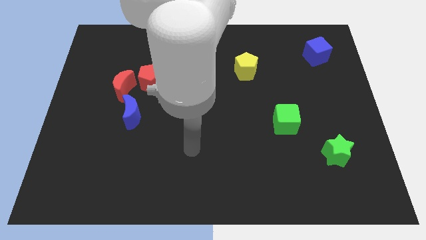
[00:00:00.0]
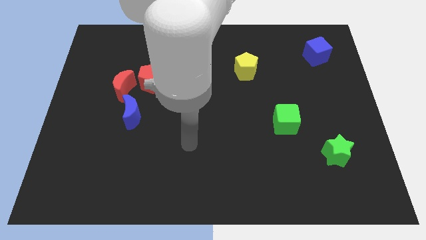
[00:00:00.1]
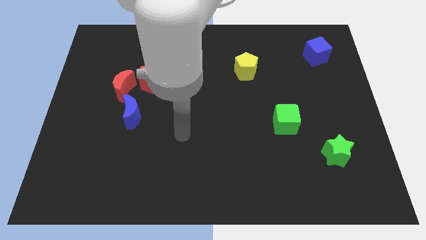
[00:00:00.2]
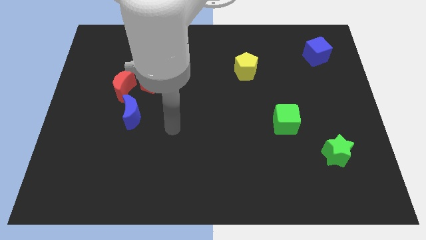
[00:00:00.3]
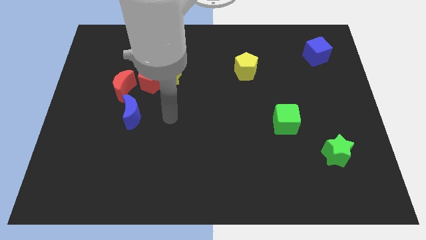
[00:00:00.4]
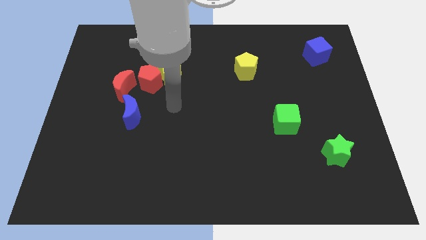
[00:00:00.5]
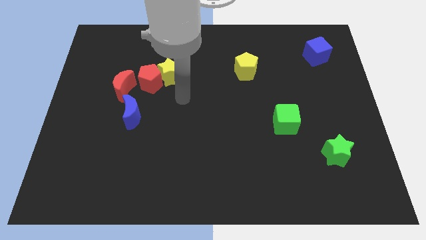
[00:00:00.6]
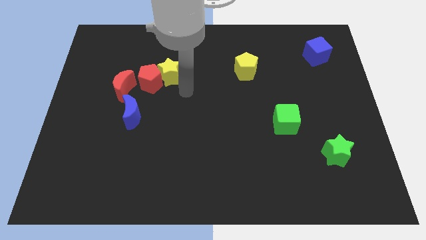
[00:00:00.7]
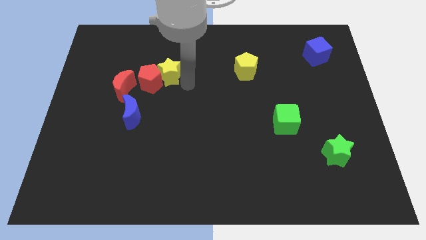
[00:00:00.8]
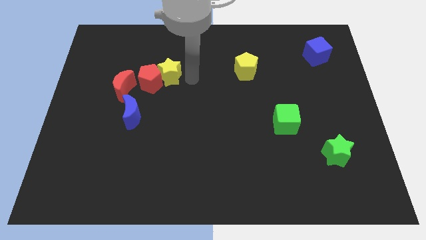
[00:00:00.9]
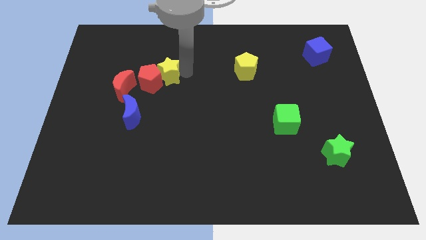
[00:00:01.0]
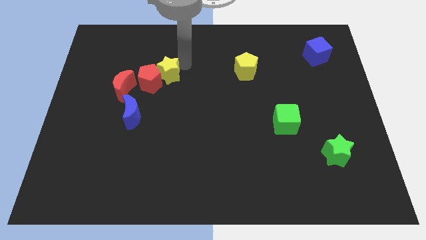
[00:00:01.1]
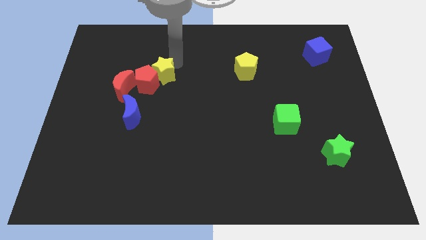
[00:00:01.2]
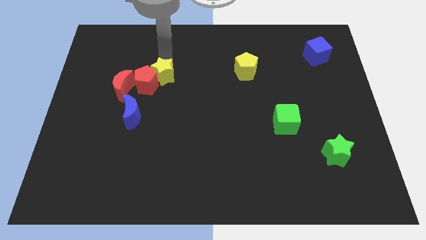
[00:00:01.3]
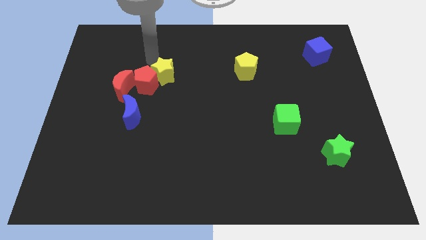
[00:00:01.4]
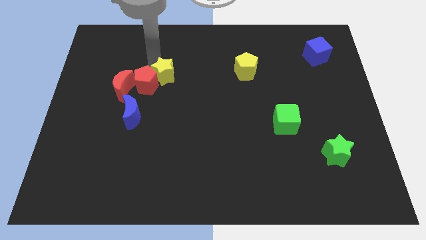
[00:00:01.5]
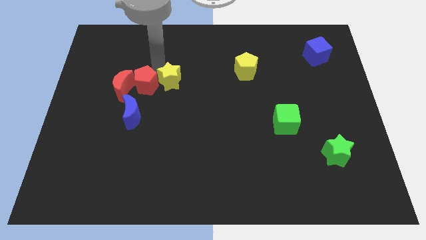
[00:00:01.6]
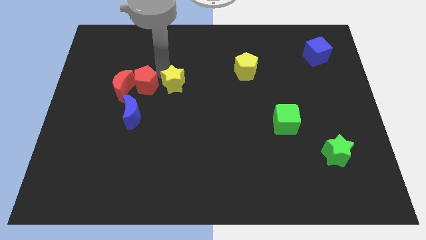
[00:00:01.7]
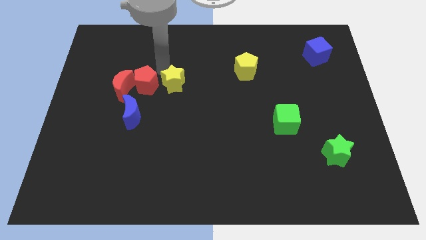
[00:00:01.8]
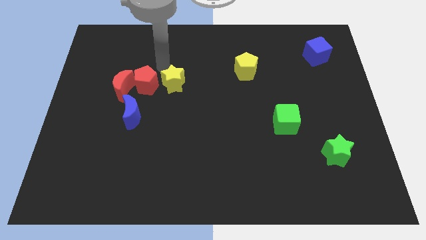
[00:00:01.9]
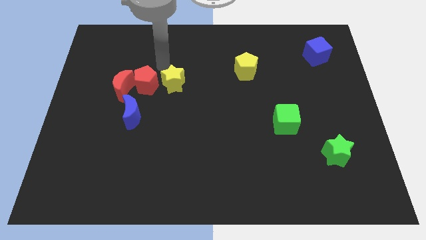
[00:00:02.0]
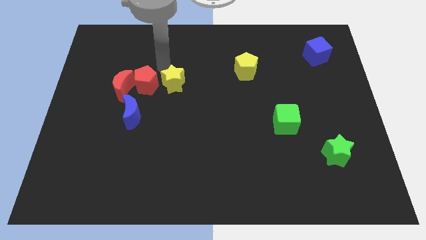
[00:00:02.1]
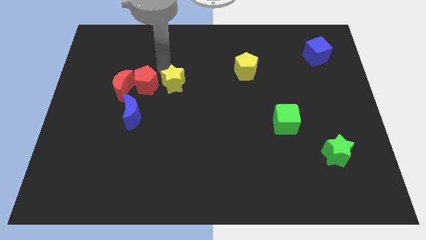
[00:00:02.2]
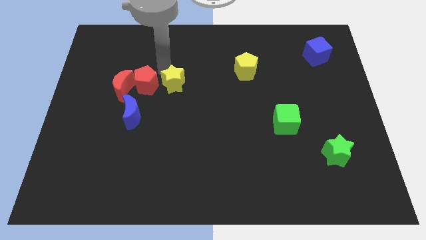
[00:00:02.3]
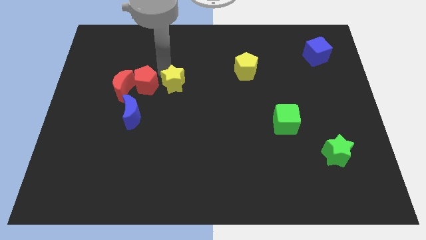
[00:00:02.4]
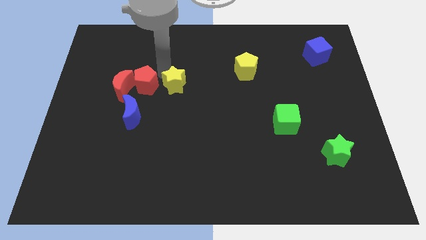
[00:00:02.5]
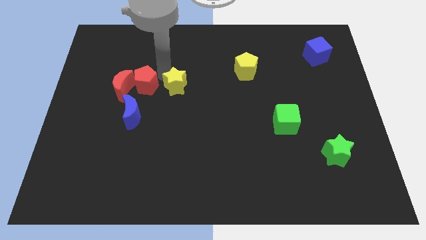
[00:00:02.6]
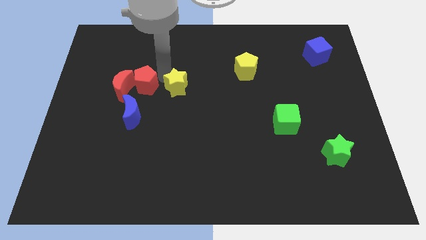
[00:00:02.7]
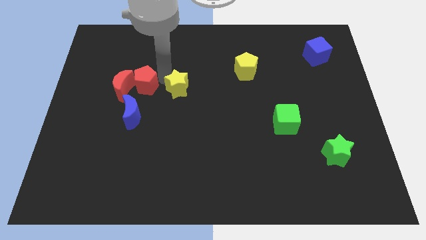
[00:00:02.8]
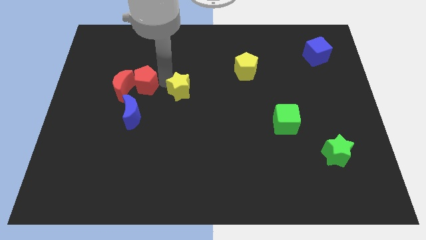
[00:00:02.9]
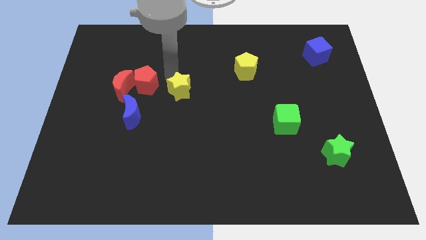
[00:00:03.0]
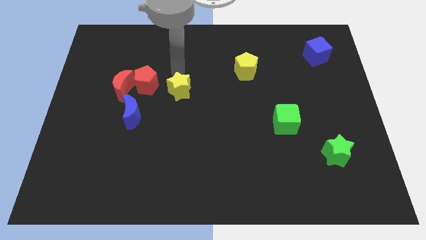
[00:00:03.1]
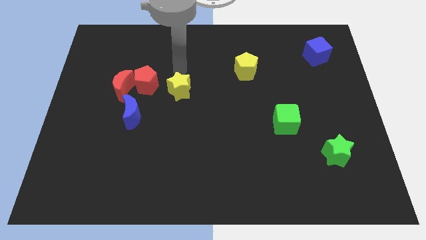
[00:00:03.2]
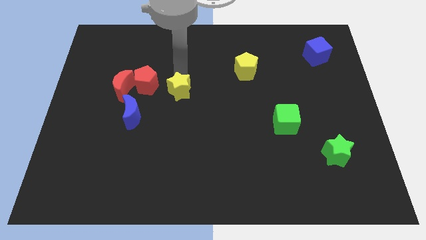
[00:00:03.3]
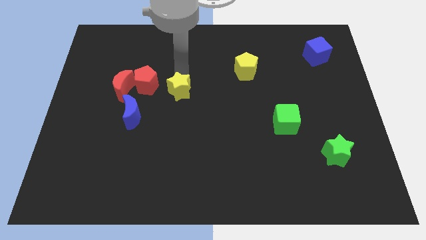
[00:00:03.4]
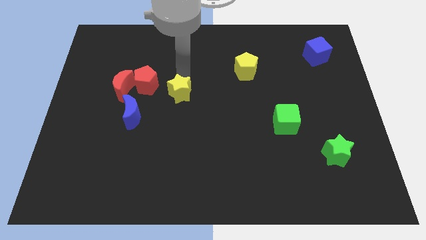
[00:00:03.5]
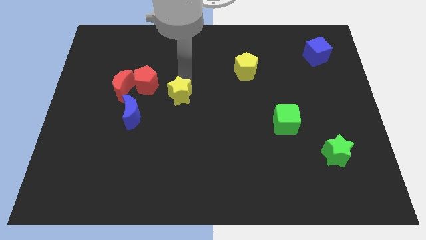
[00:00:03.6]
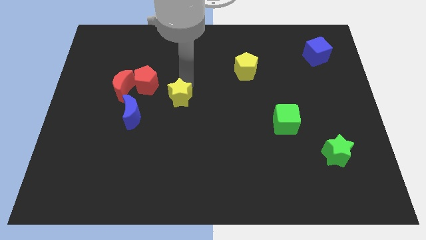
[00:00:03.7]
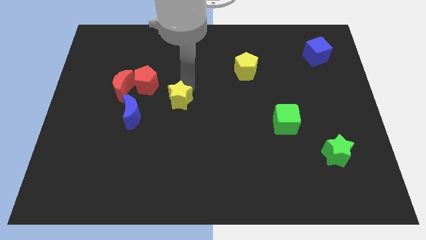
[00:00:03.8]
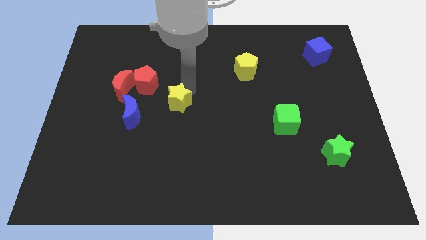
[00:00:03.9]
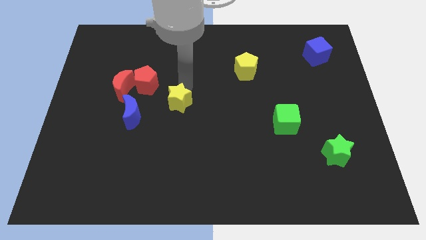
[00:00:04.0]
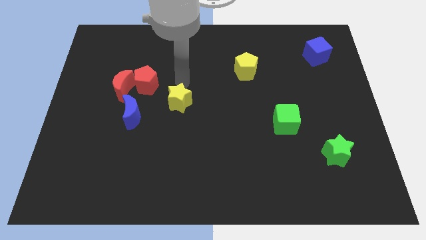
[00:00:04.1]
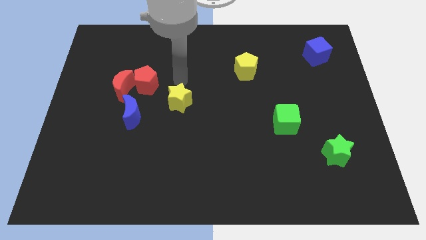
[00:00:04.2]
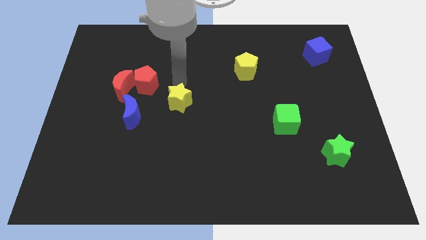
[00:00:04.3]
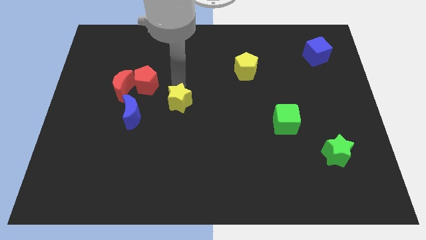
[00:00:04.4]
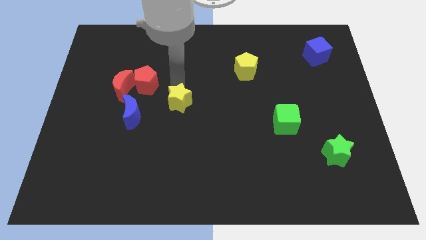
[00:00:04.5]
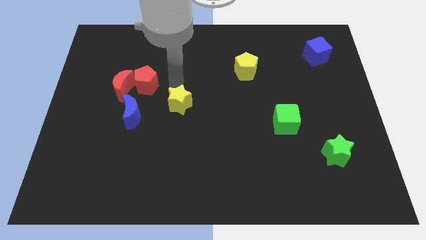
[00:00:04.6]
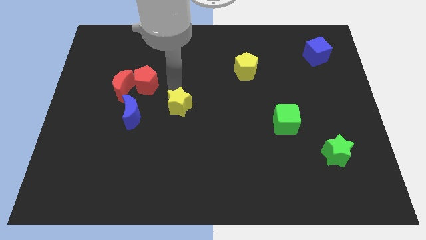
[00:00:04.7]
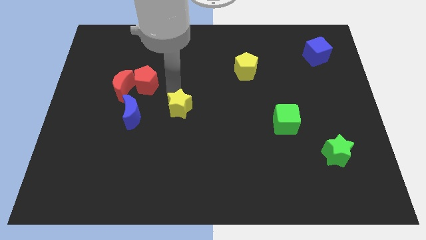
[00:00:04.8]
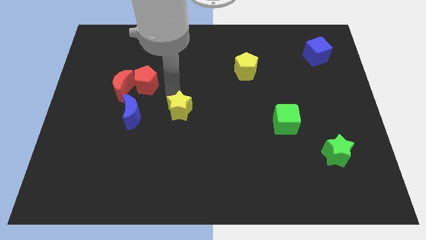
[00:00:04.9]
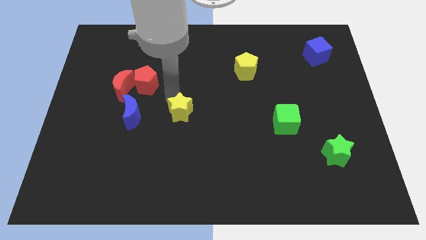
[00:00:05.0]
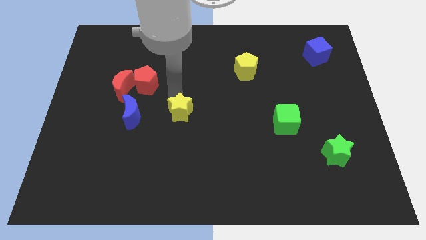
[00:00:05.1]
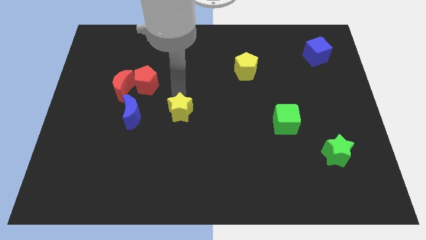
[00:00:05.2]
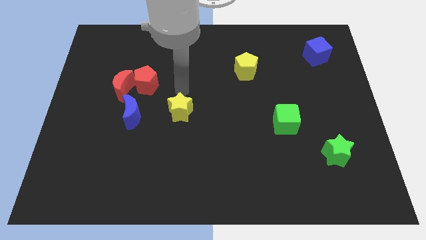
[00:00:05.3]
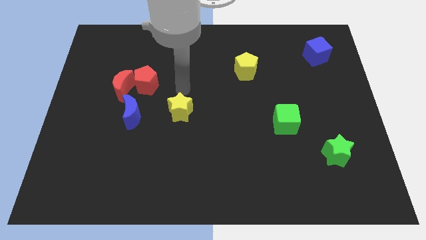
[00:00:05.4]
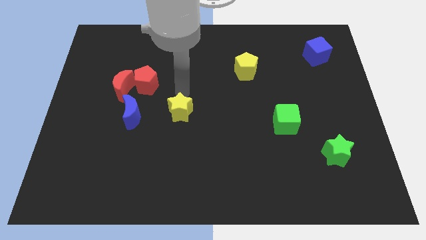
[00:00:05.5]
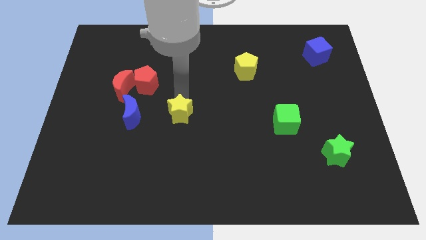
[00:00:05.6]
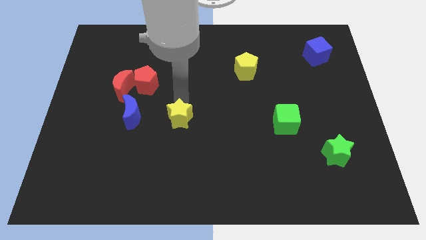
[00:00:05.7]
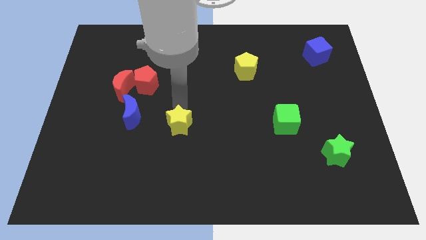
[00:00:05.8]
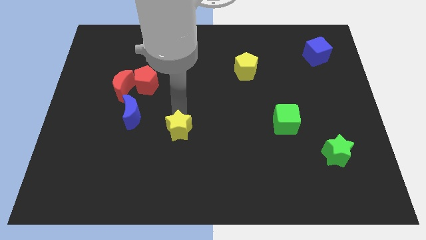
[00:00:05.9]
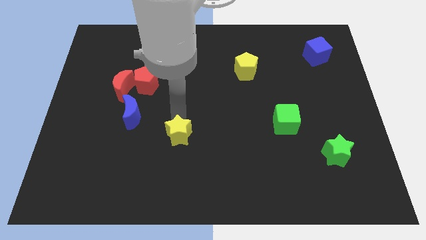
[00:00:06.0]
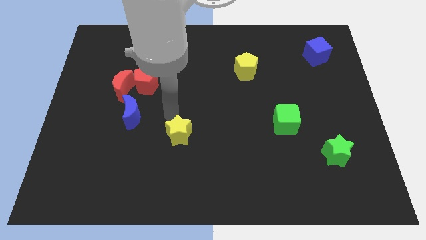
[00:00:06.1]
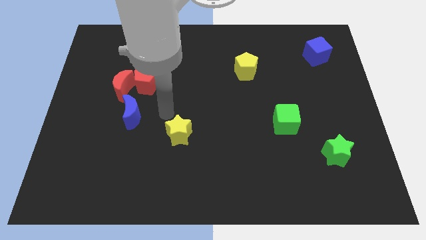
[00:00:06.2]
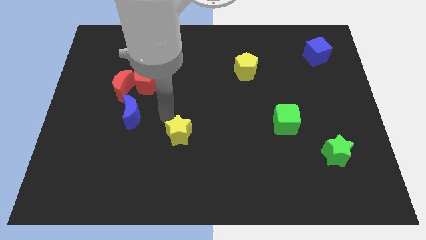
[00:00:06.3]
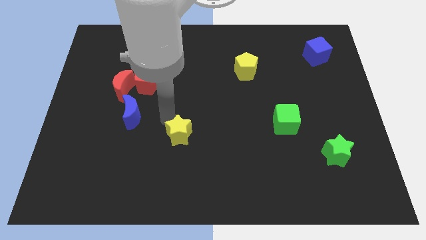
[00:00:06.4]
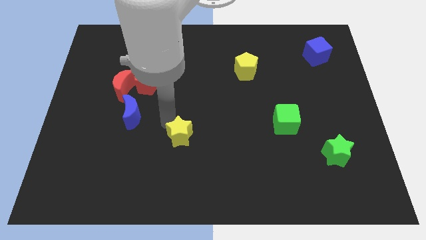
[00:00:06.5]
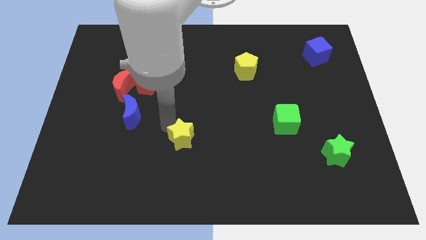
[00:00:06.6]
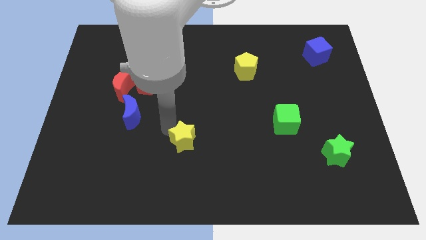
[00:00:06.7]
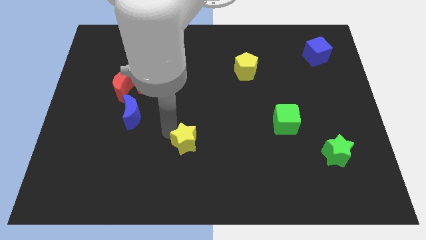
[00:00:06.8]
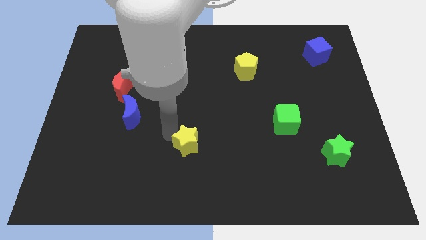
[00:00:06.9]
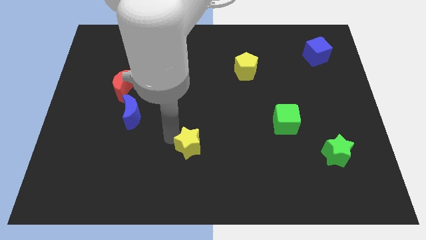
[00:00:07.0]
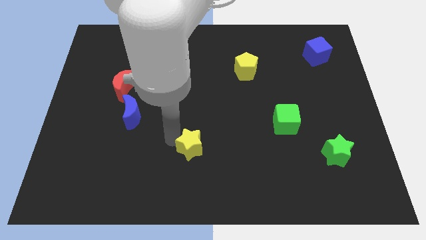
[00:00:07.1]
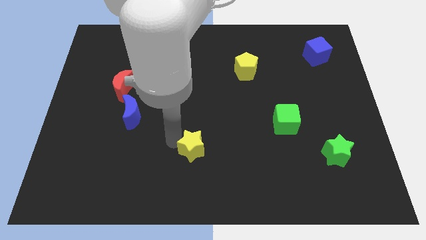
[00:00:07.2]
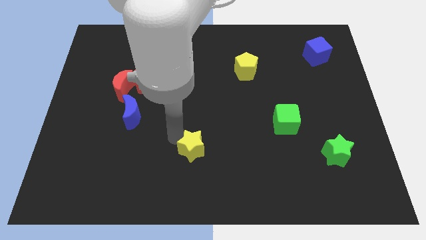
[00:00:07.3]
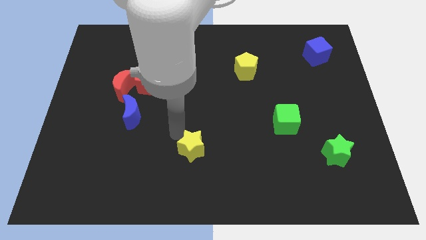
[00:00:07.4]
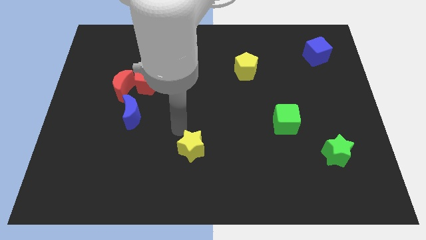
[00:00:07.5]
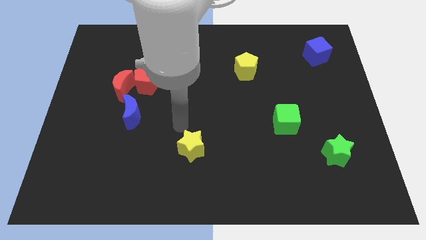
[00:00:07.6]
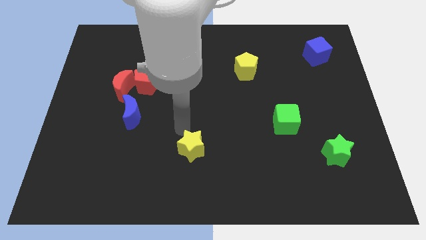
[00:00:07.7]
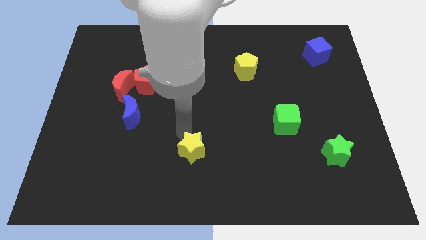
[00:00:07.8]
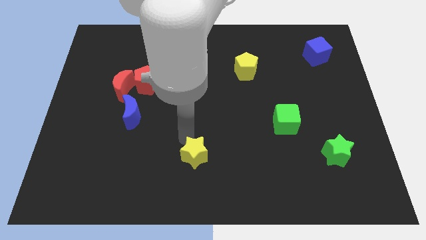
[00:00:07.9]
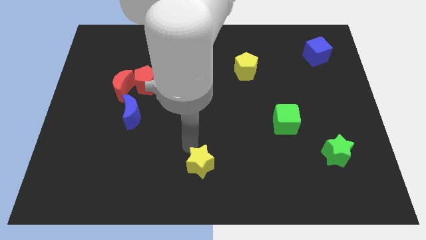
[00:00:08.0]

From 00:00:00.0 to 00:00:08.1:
push the yellow star to the bottom side
